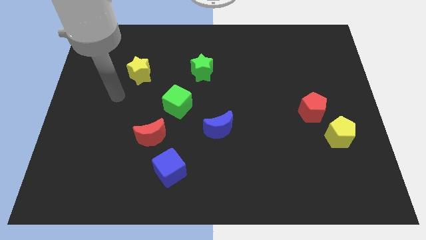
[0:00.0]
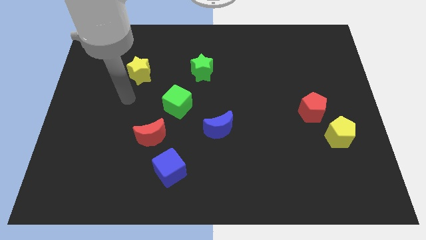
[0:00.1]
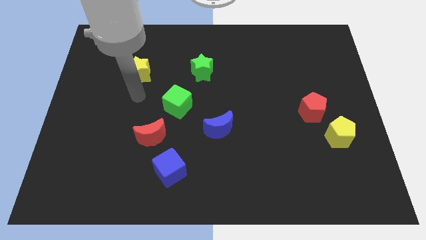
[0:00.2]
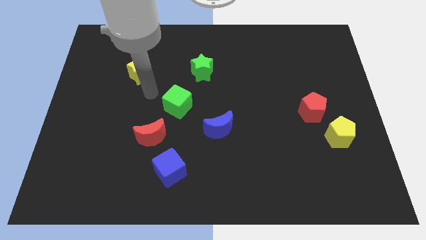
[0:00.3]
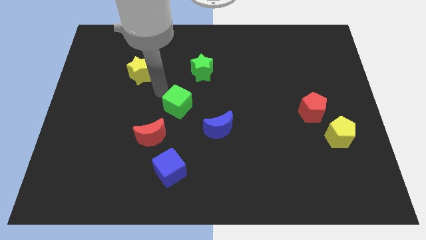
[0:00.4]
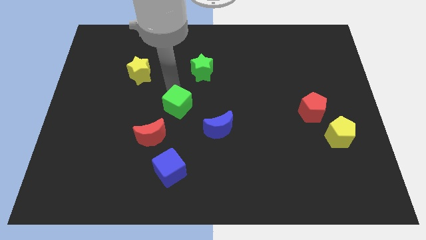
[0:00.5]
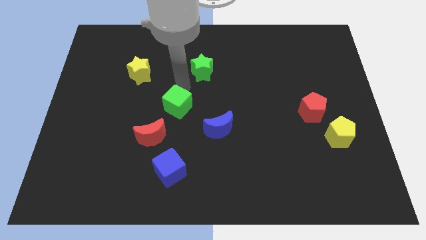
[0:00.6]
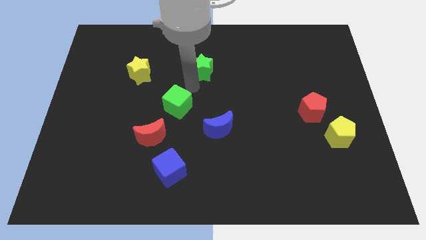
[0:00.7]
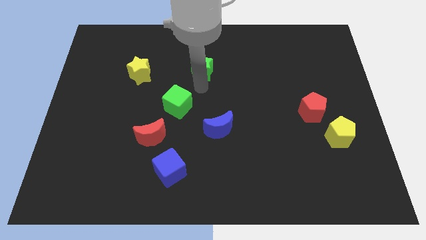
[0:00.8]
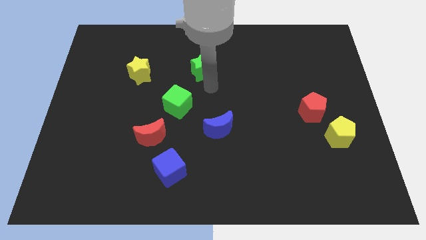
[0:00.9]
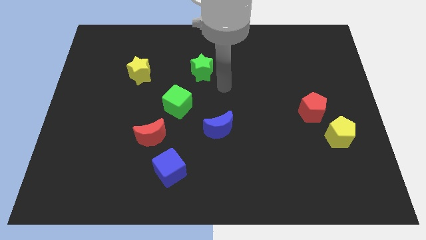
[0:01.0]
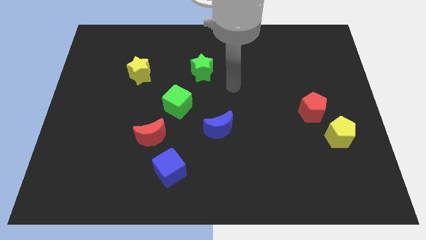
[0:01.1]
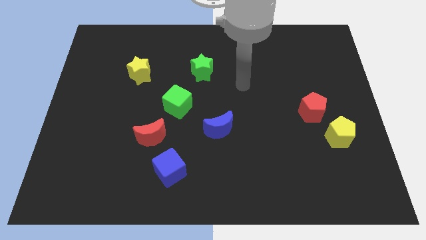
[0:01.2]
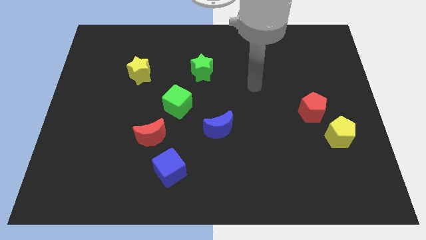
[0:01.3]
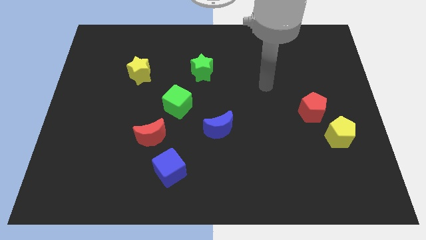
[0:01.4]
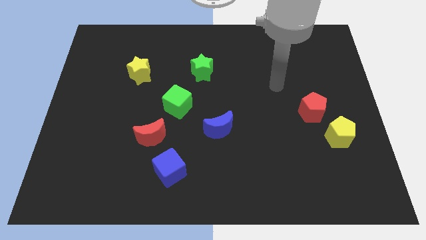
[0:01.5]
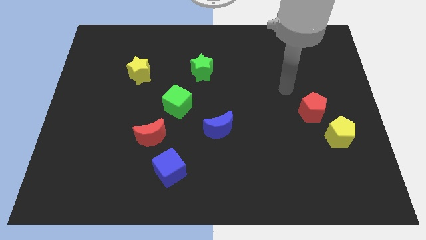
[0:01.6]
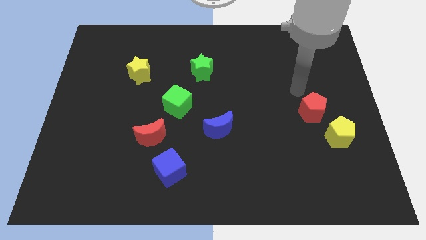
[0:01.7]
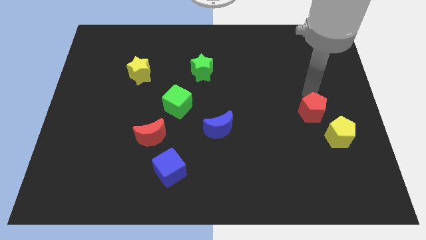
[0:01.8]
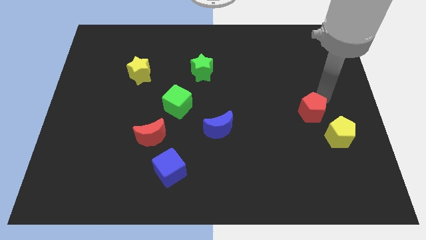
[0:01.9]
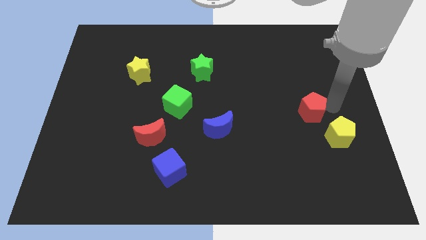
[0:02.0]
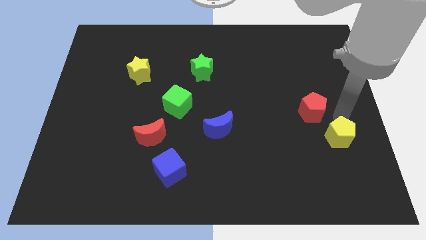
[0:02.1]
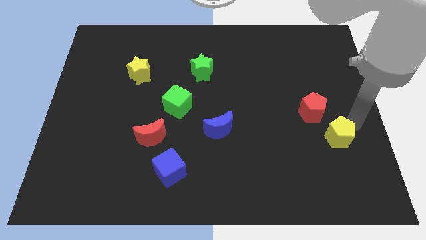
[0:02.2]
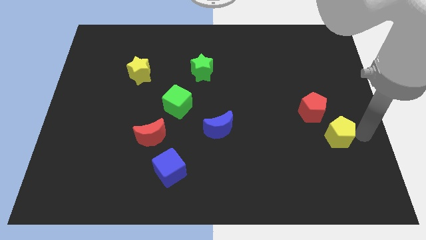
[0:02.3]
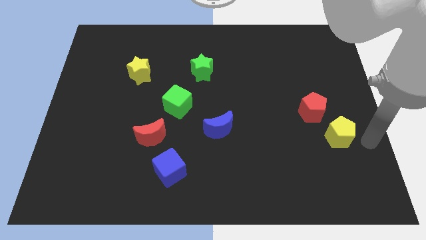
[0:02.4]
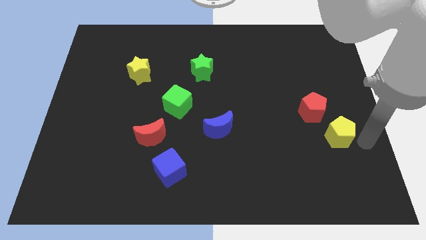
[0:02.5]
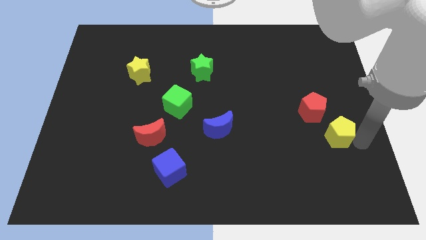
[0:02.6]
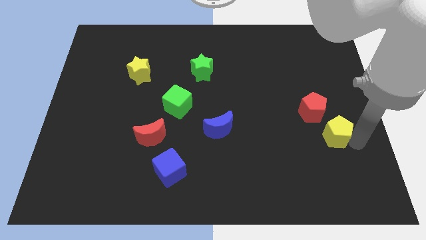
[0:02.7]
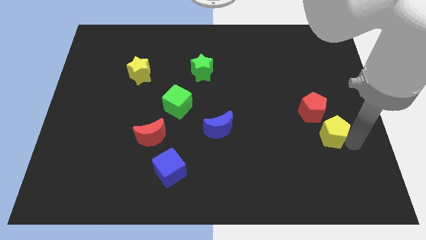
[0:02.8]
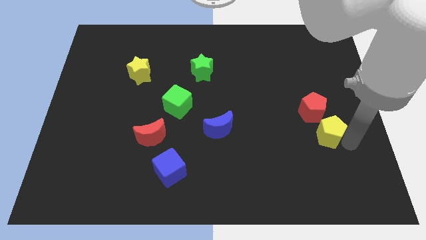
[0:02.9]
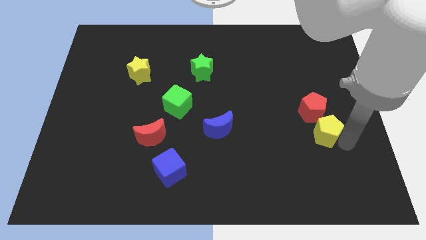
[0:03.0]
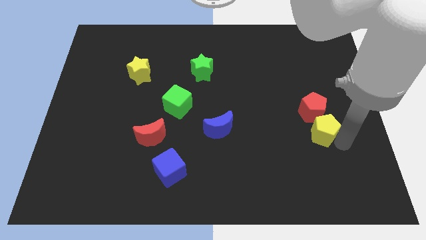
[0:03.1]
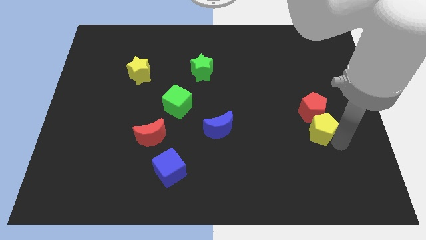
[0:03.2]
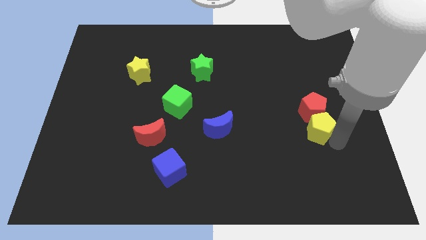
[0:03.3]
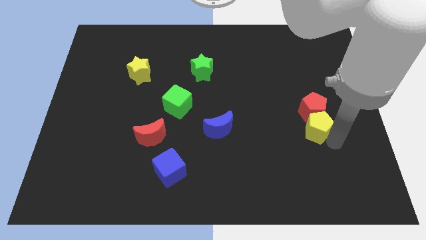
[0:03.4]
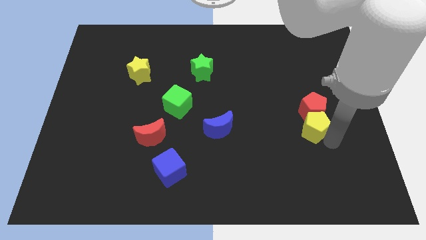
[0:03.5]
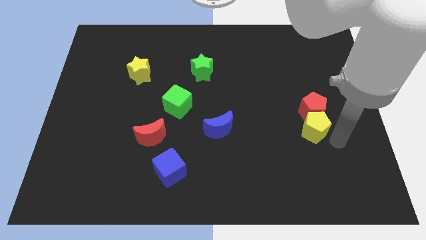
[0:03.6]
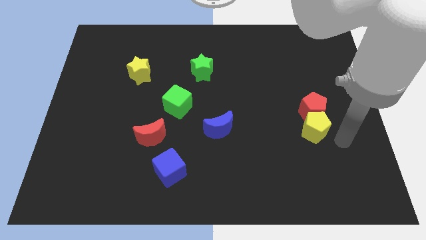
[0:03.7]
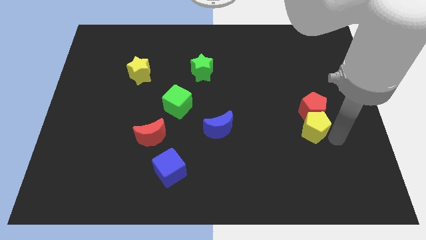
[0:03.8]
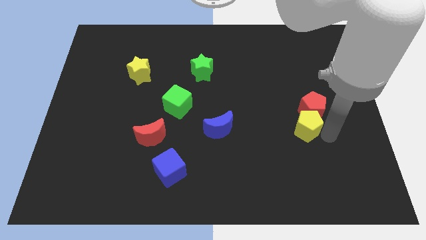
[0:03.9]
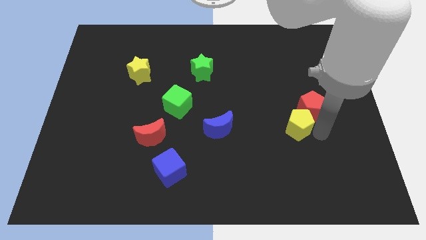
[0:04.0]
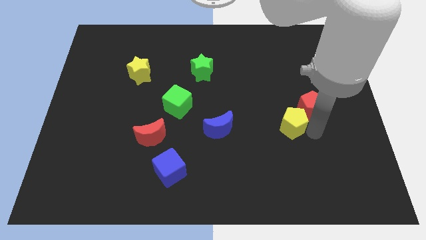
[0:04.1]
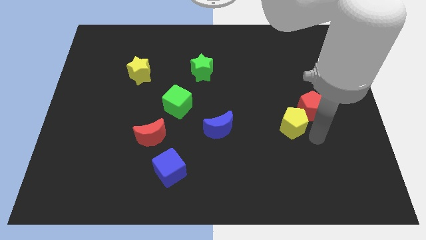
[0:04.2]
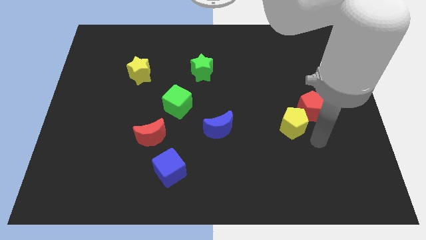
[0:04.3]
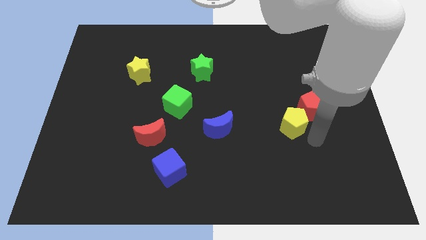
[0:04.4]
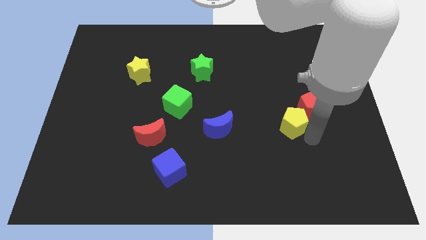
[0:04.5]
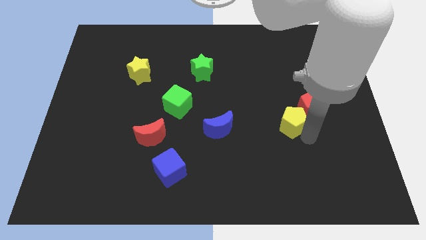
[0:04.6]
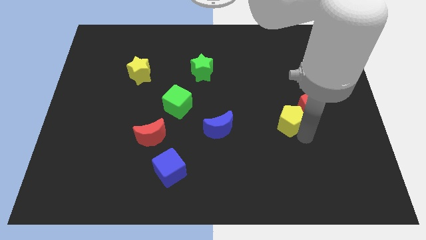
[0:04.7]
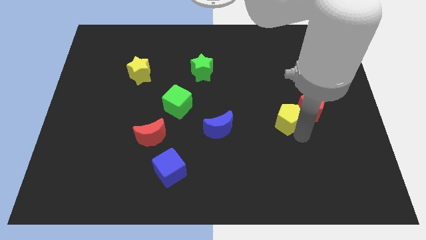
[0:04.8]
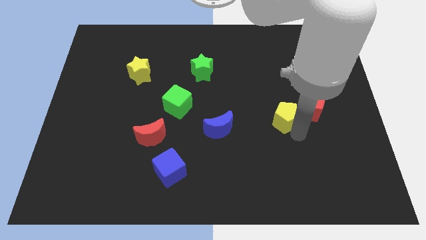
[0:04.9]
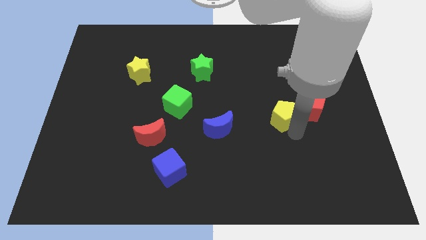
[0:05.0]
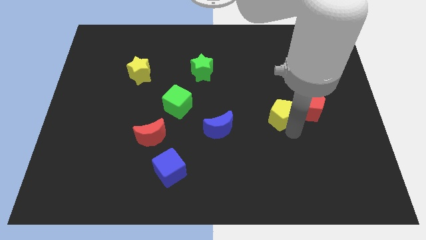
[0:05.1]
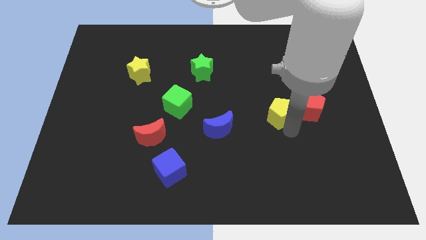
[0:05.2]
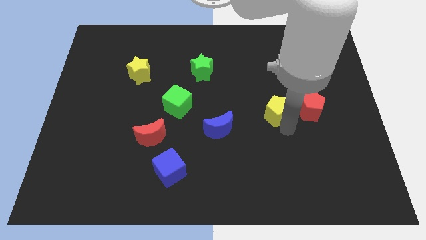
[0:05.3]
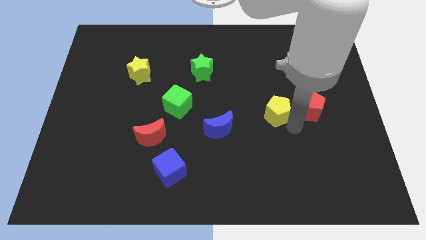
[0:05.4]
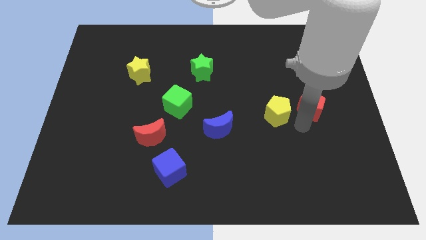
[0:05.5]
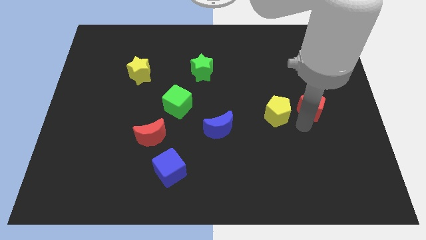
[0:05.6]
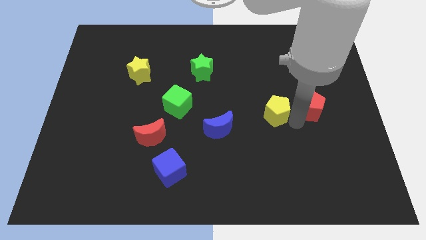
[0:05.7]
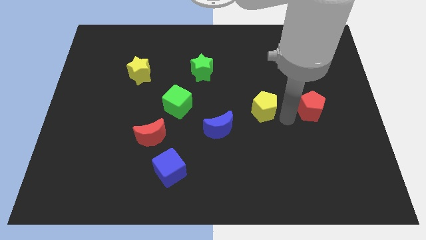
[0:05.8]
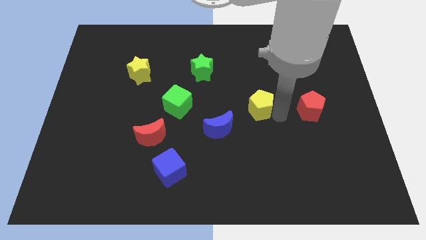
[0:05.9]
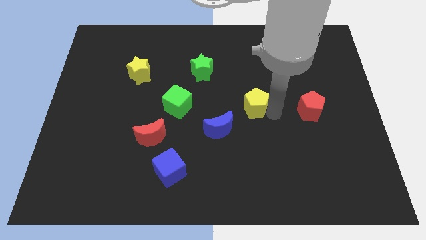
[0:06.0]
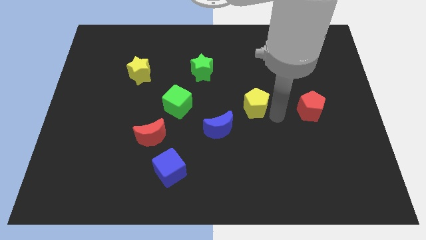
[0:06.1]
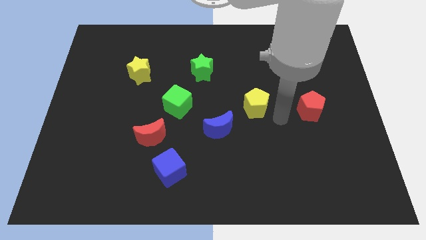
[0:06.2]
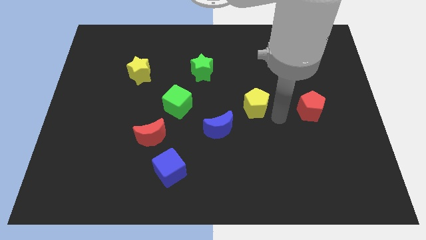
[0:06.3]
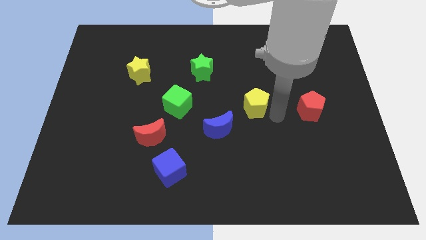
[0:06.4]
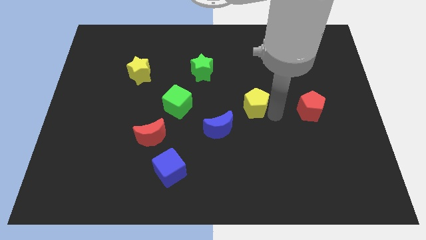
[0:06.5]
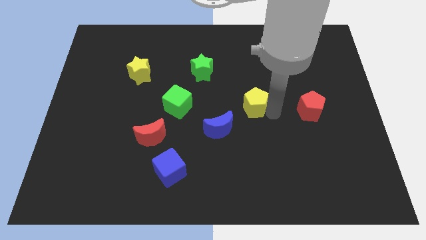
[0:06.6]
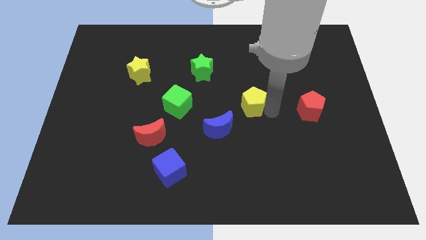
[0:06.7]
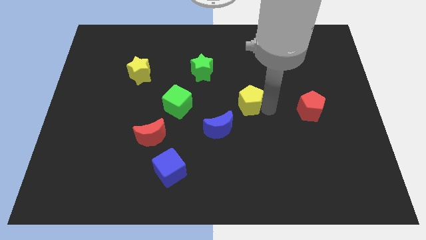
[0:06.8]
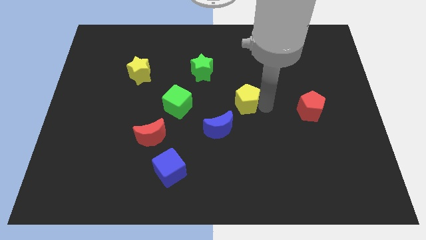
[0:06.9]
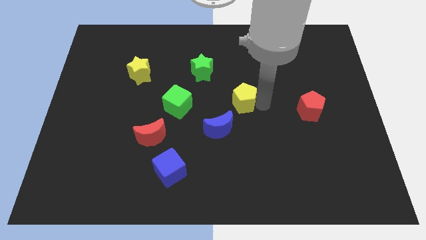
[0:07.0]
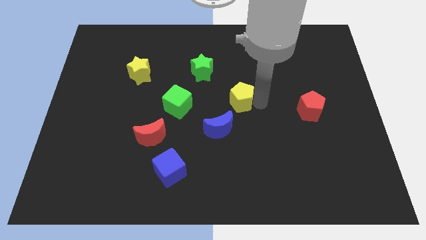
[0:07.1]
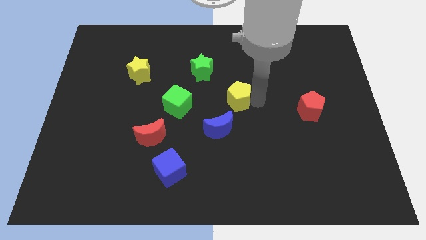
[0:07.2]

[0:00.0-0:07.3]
move the yellow pentagon to the top side of the blue moon

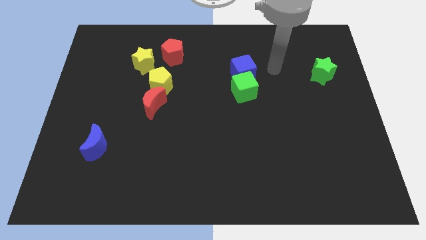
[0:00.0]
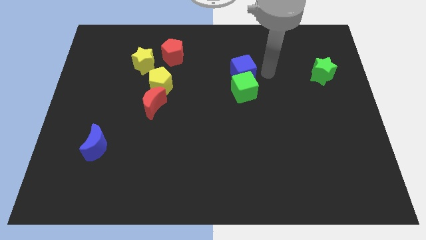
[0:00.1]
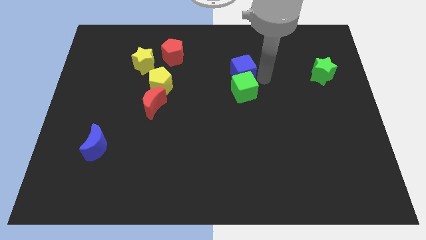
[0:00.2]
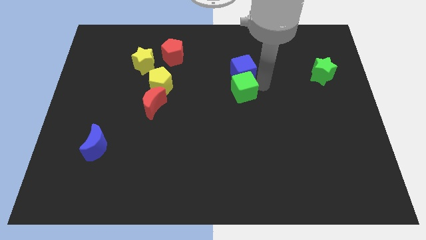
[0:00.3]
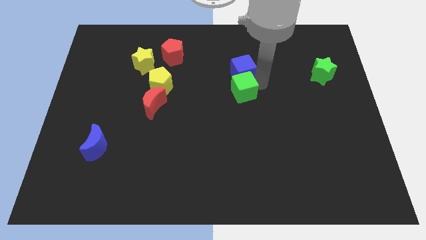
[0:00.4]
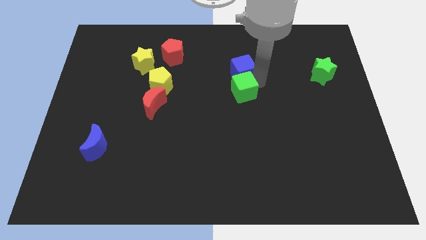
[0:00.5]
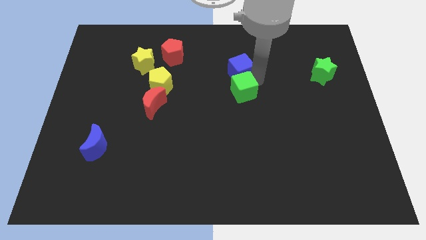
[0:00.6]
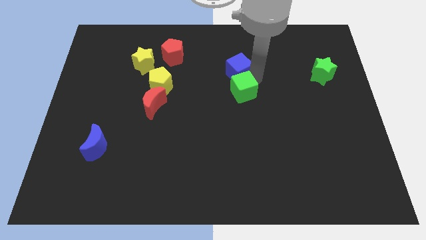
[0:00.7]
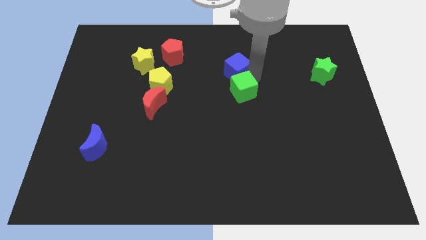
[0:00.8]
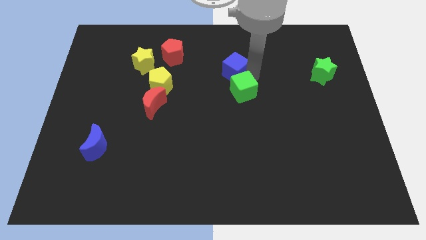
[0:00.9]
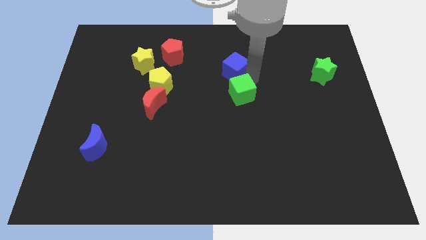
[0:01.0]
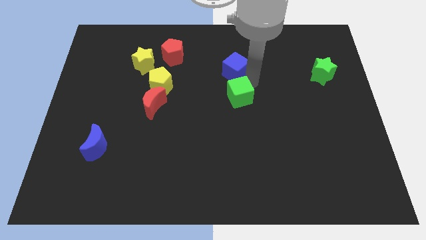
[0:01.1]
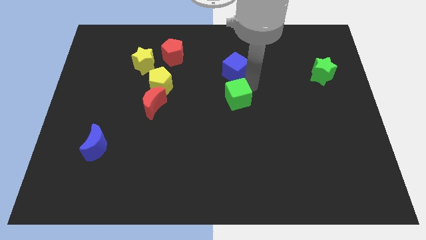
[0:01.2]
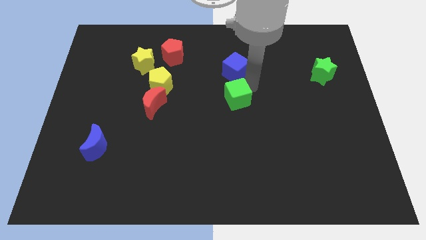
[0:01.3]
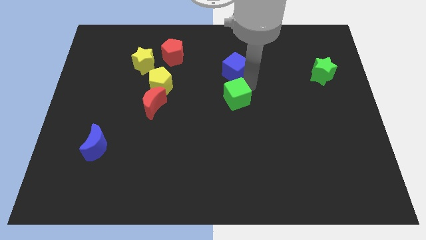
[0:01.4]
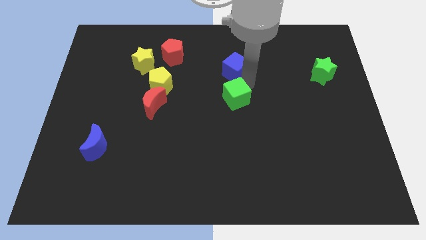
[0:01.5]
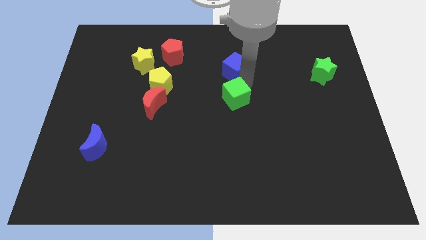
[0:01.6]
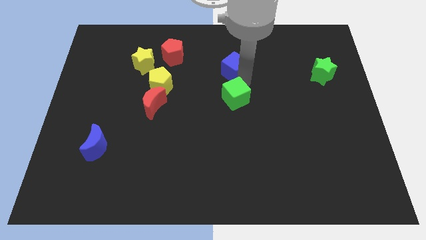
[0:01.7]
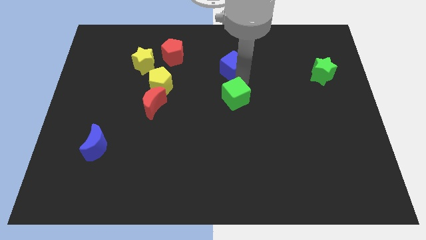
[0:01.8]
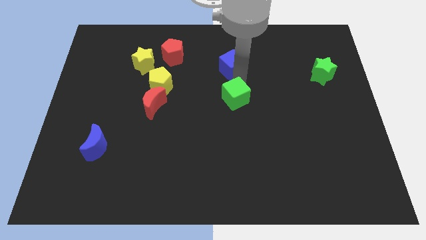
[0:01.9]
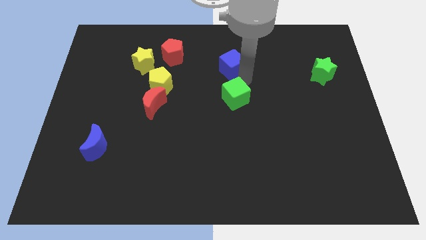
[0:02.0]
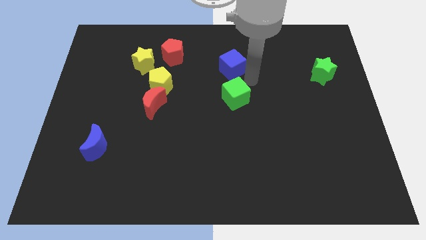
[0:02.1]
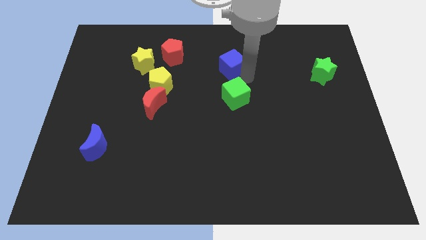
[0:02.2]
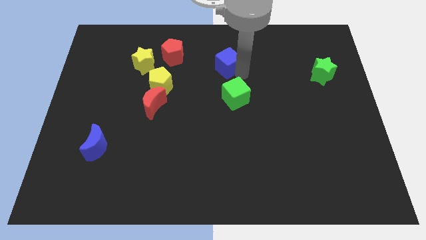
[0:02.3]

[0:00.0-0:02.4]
slide the blue cube to the right side of the red pentagon
